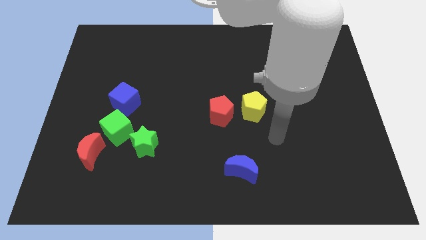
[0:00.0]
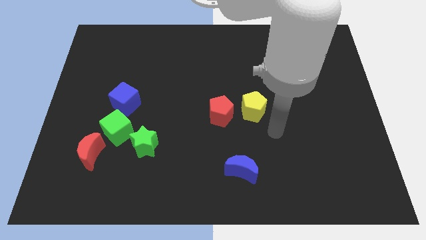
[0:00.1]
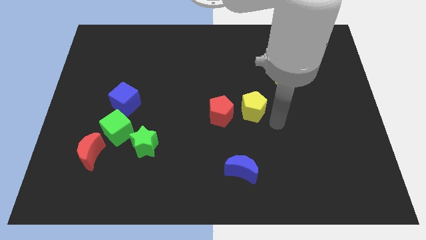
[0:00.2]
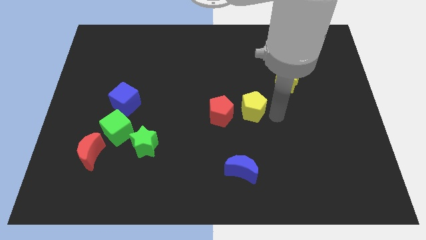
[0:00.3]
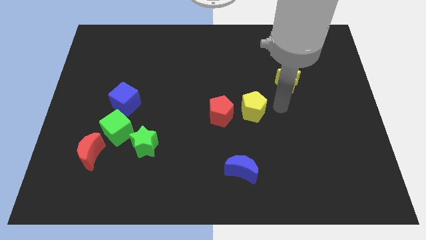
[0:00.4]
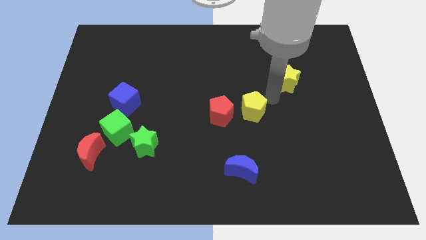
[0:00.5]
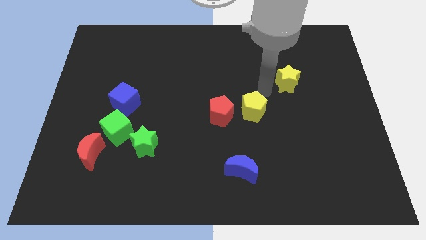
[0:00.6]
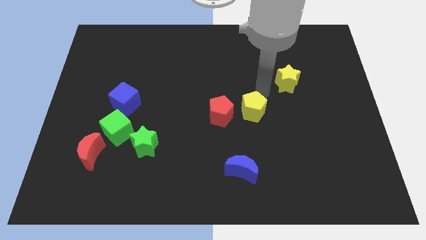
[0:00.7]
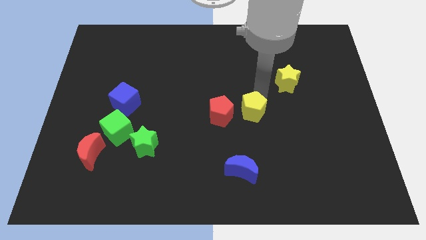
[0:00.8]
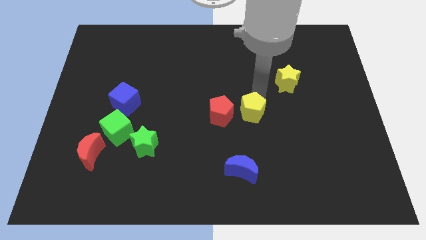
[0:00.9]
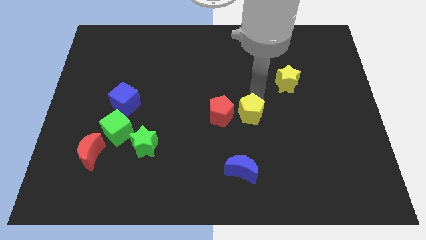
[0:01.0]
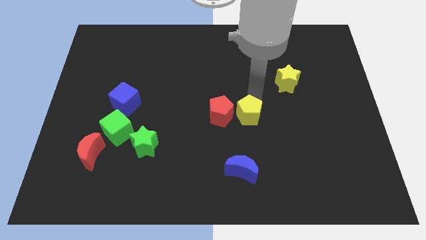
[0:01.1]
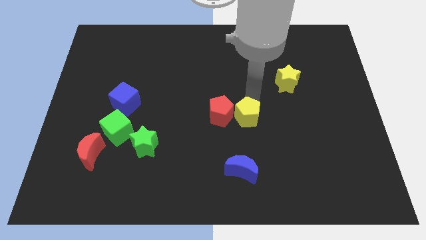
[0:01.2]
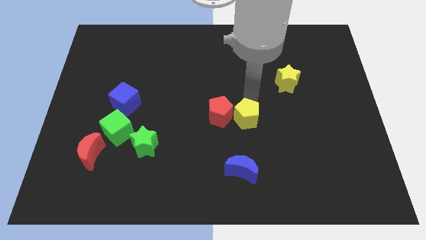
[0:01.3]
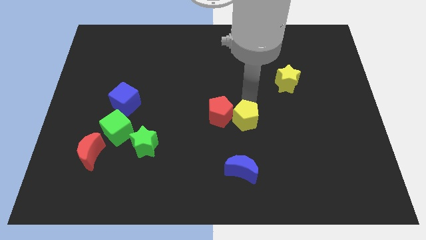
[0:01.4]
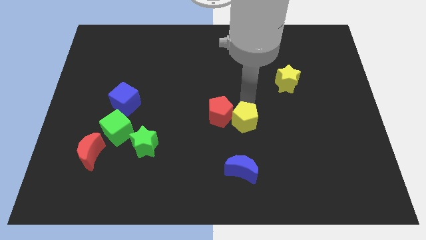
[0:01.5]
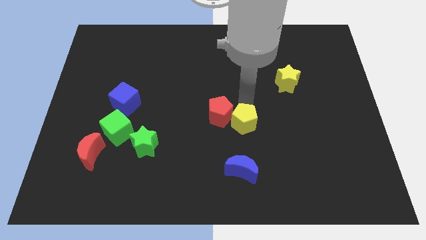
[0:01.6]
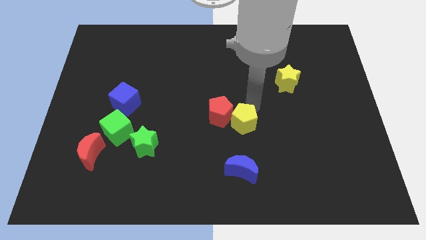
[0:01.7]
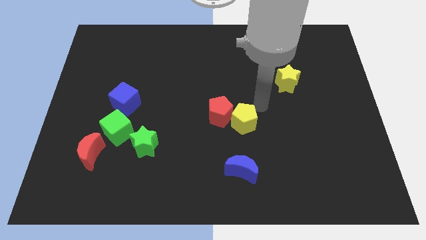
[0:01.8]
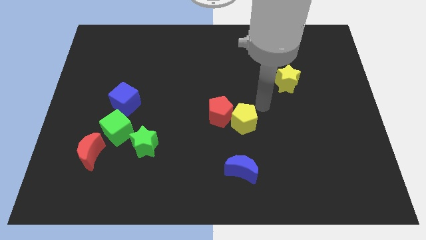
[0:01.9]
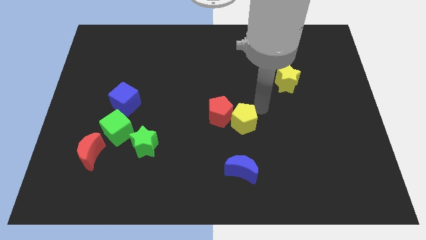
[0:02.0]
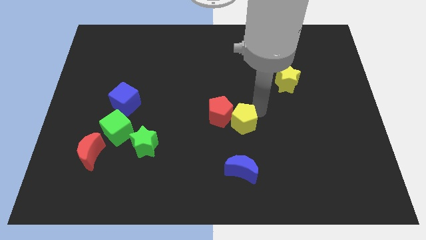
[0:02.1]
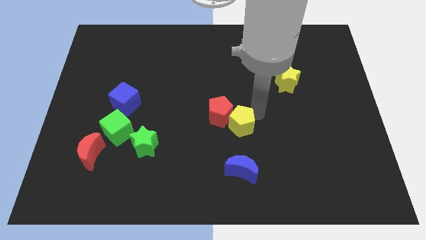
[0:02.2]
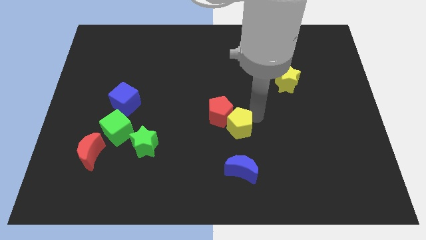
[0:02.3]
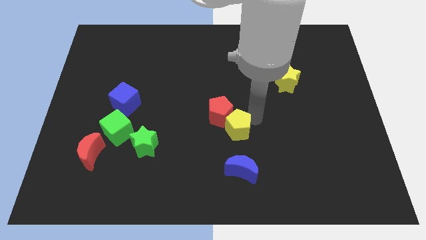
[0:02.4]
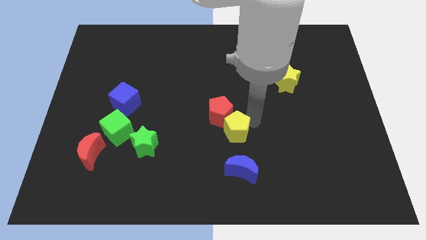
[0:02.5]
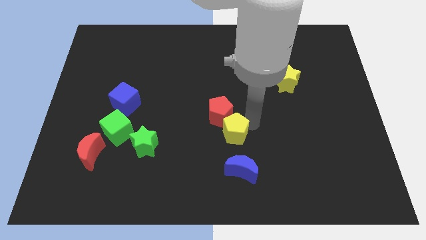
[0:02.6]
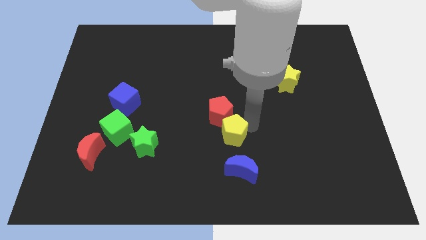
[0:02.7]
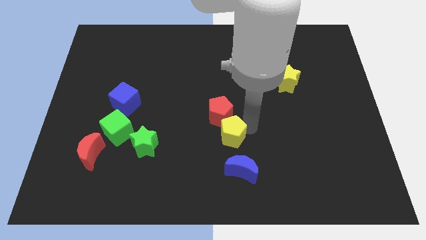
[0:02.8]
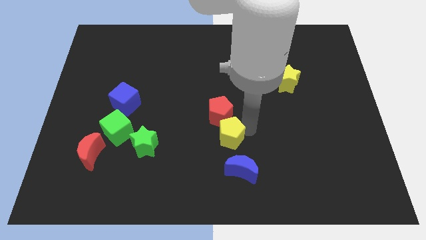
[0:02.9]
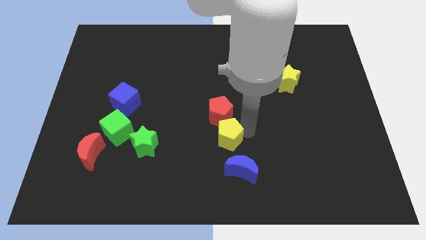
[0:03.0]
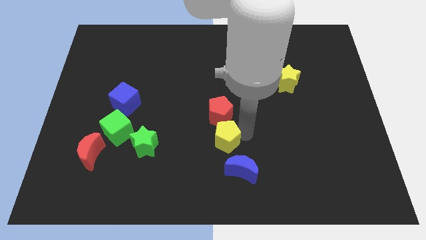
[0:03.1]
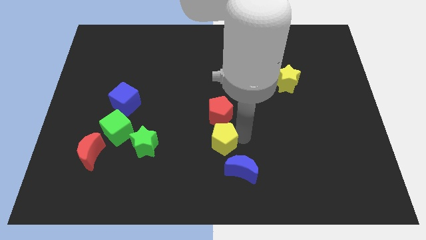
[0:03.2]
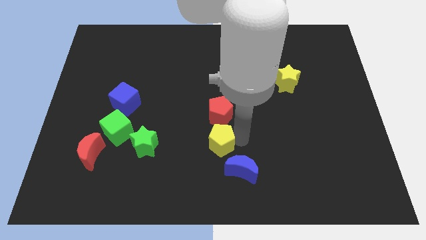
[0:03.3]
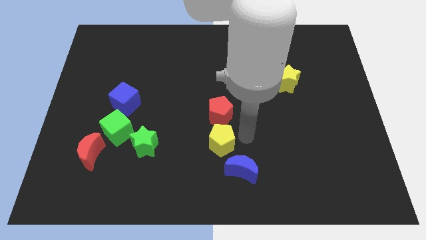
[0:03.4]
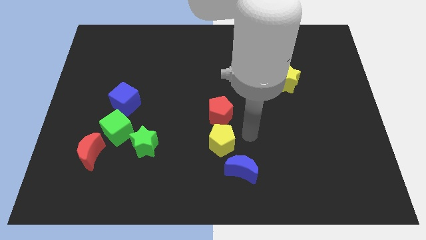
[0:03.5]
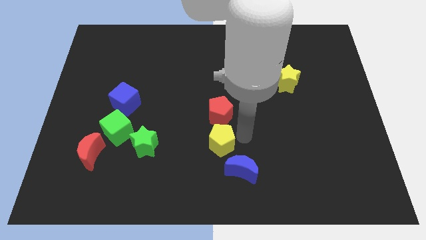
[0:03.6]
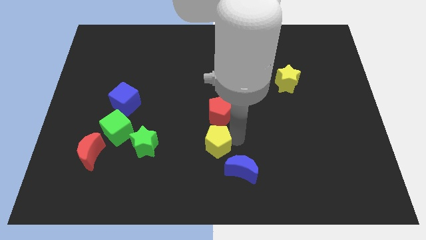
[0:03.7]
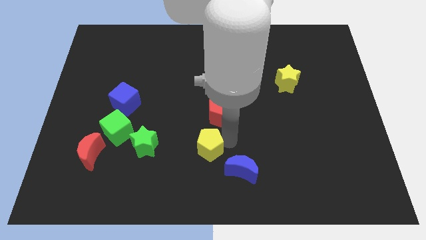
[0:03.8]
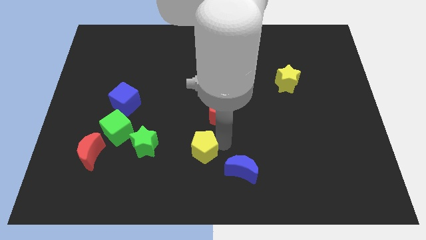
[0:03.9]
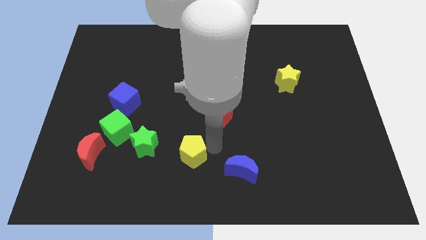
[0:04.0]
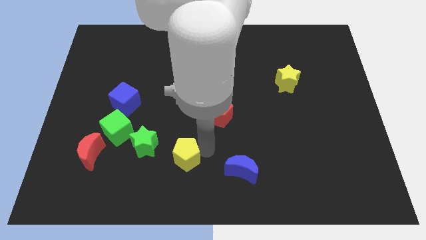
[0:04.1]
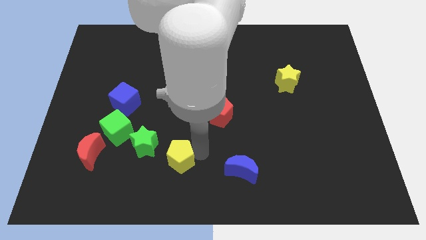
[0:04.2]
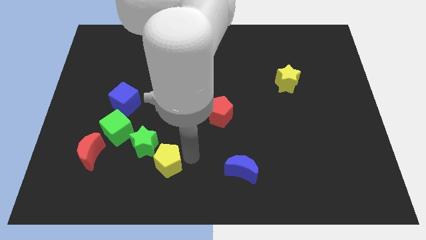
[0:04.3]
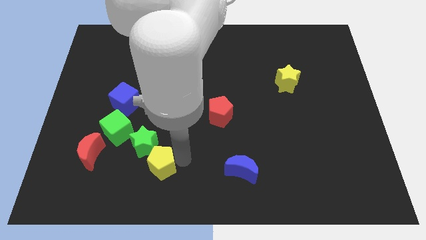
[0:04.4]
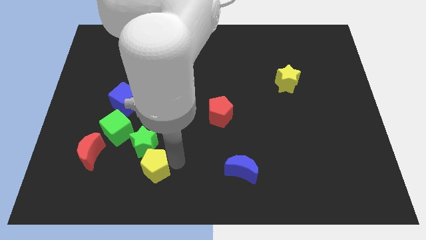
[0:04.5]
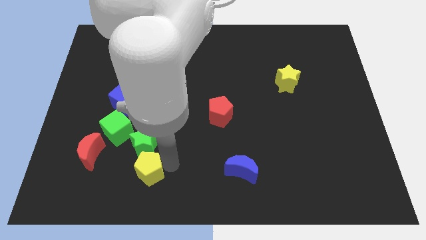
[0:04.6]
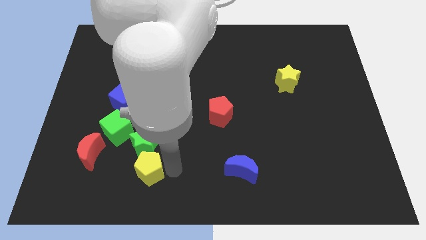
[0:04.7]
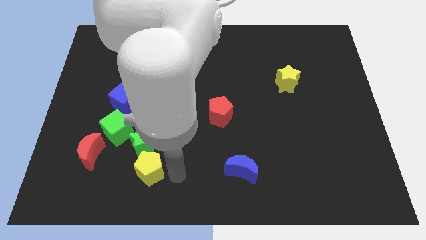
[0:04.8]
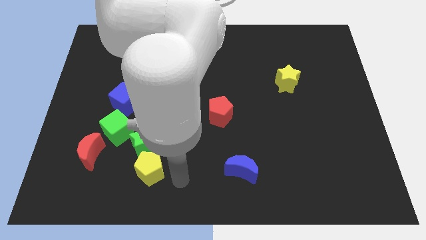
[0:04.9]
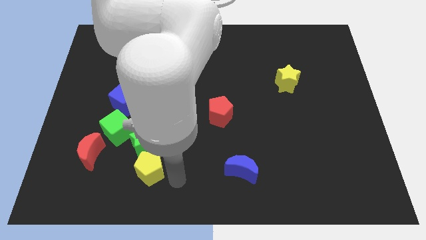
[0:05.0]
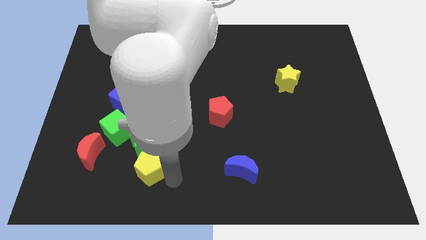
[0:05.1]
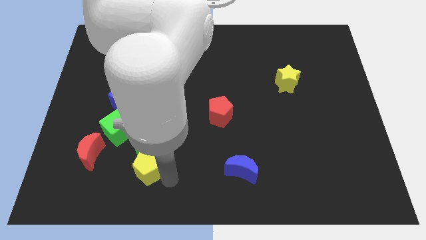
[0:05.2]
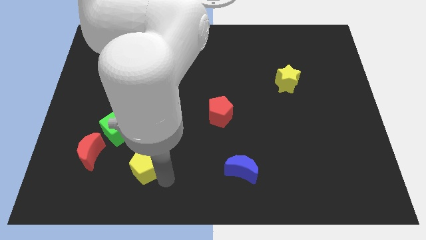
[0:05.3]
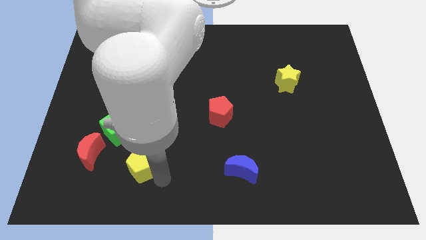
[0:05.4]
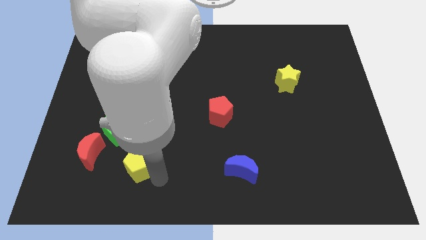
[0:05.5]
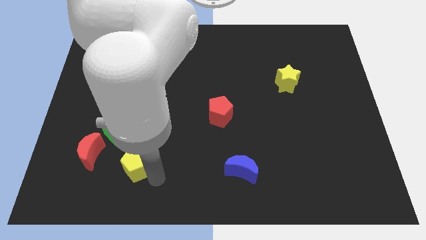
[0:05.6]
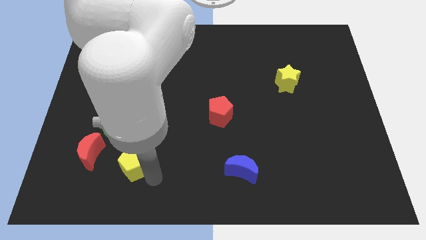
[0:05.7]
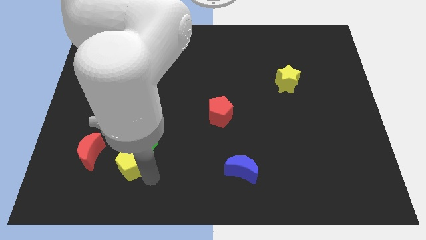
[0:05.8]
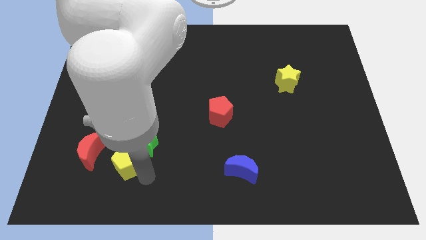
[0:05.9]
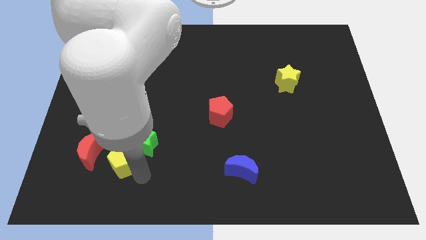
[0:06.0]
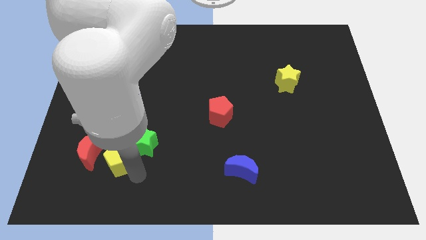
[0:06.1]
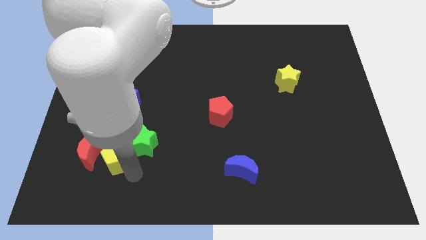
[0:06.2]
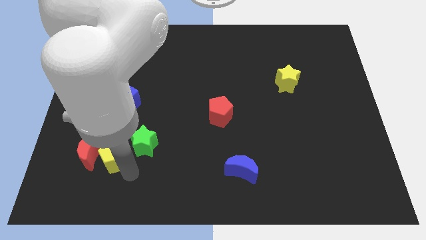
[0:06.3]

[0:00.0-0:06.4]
push the yellow pentagon to the red moon
